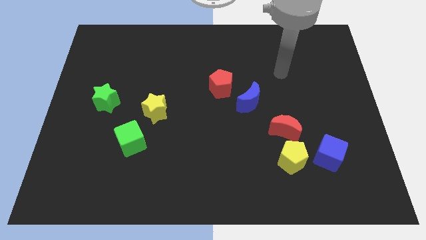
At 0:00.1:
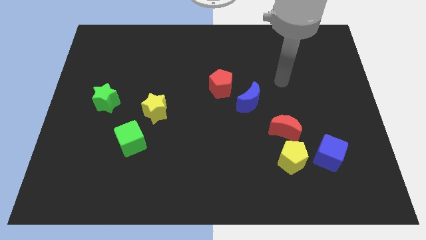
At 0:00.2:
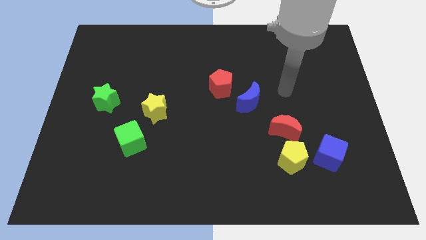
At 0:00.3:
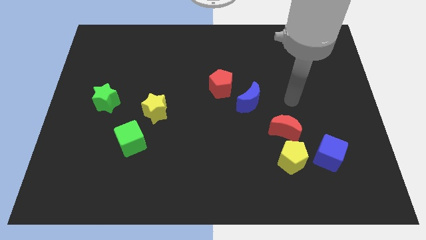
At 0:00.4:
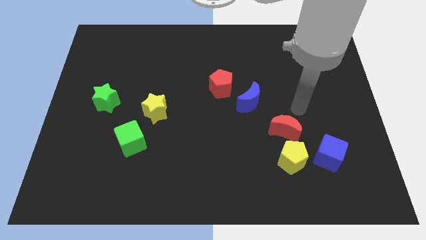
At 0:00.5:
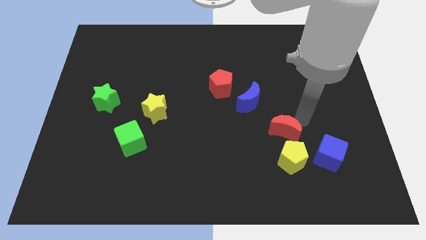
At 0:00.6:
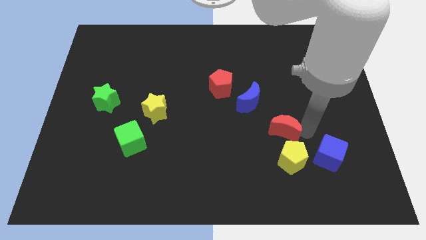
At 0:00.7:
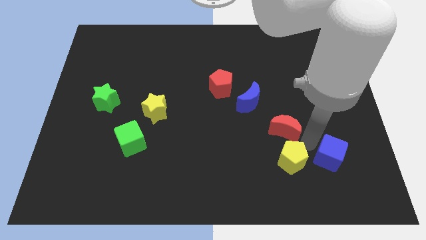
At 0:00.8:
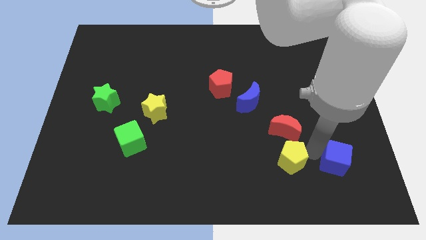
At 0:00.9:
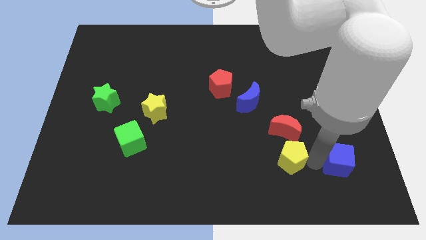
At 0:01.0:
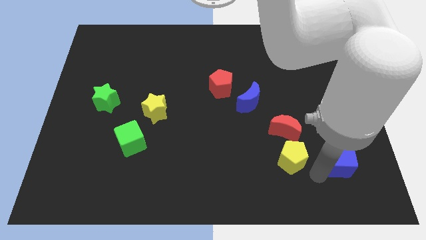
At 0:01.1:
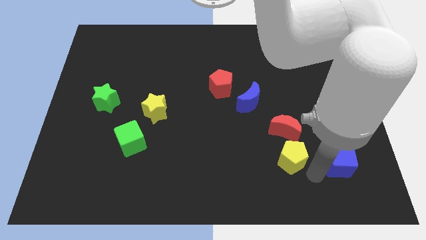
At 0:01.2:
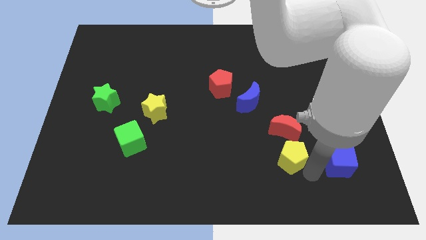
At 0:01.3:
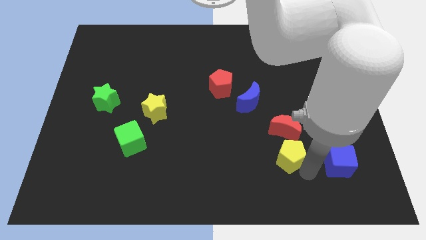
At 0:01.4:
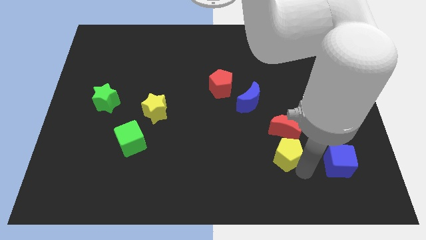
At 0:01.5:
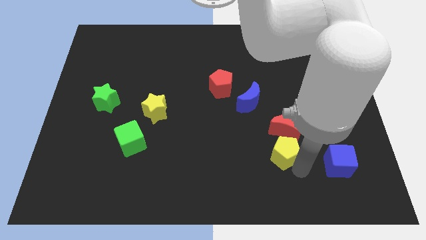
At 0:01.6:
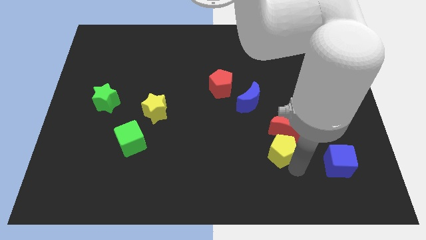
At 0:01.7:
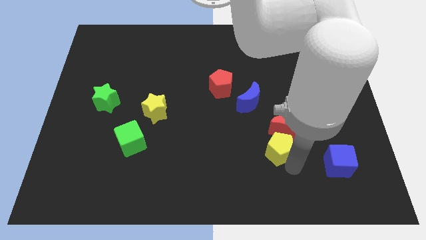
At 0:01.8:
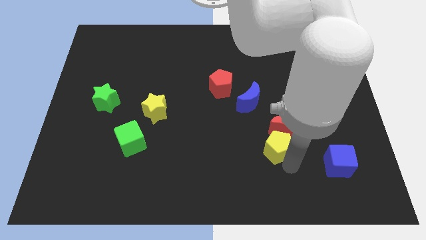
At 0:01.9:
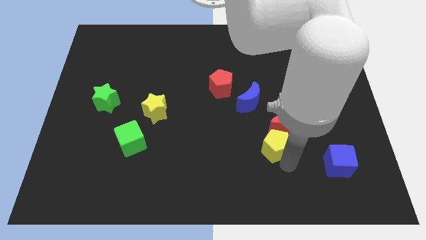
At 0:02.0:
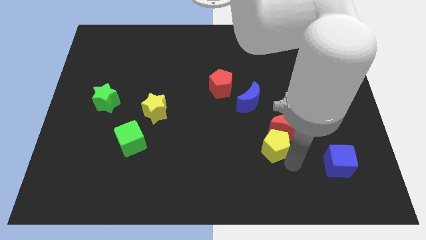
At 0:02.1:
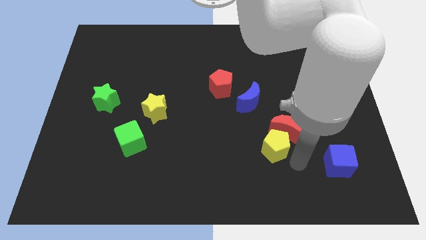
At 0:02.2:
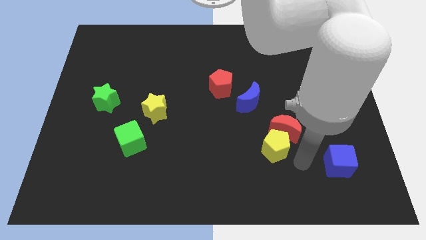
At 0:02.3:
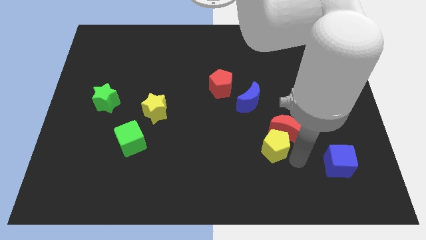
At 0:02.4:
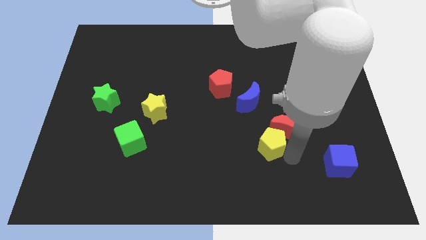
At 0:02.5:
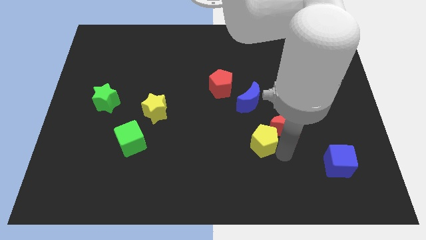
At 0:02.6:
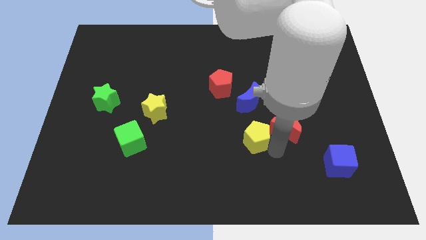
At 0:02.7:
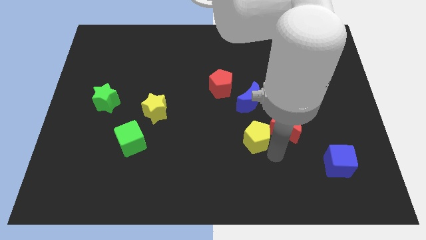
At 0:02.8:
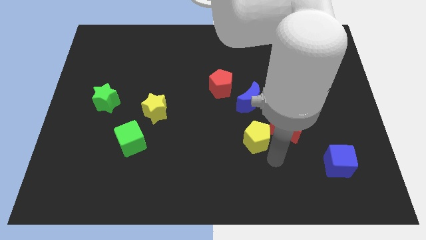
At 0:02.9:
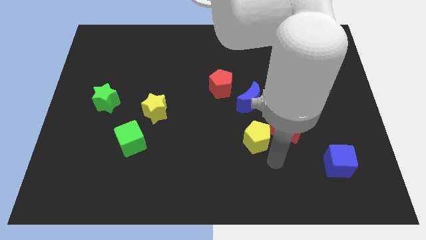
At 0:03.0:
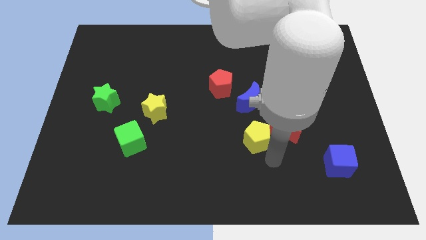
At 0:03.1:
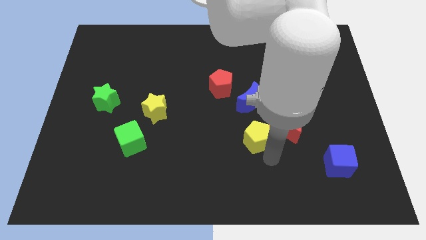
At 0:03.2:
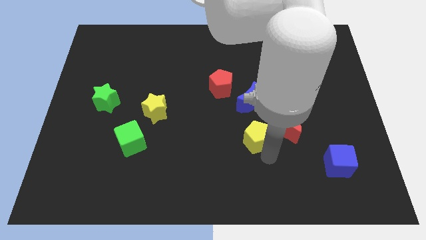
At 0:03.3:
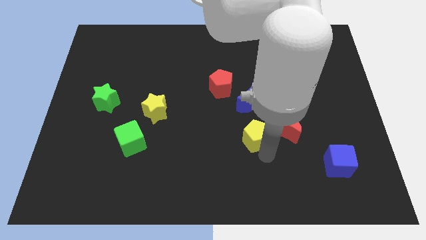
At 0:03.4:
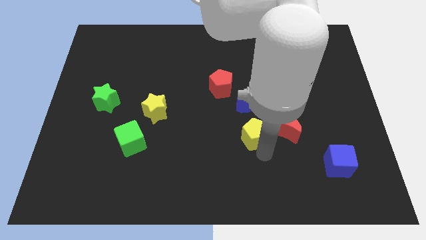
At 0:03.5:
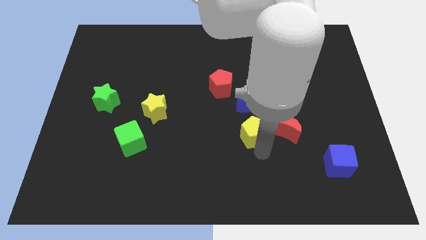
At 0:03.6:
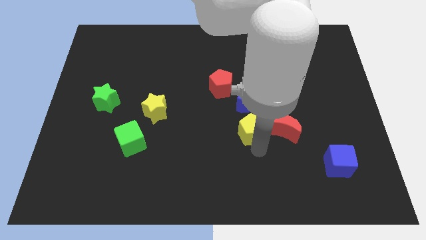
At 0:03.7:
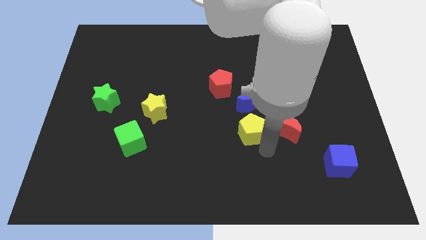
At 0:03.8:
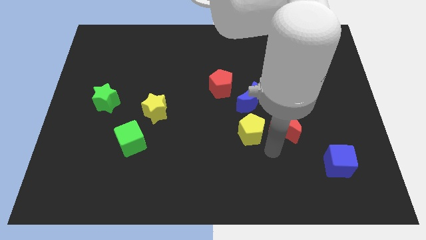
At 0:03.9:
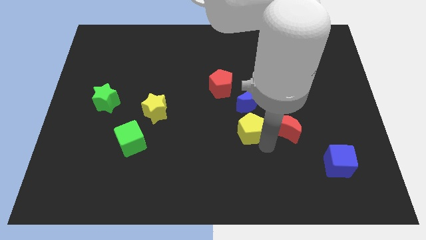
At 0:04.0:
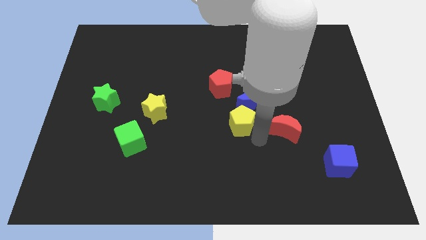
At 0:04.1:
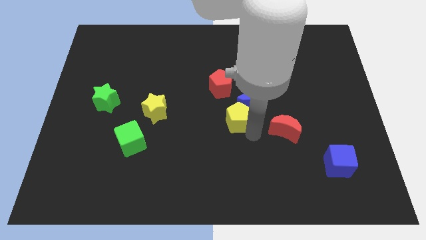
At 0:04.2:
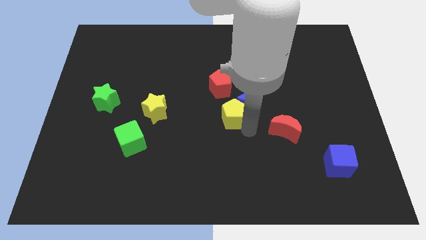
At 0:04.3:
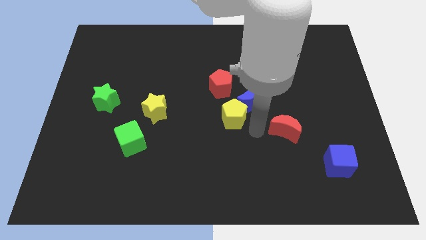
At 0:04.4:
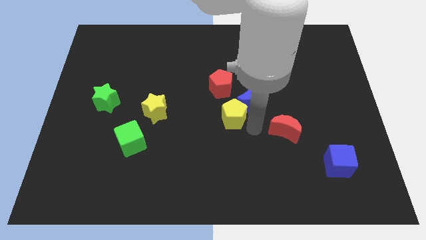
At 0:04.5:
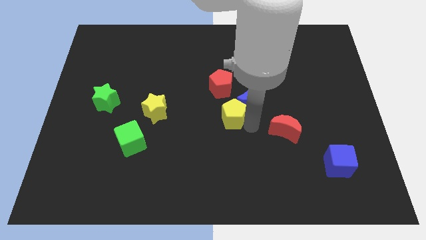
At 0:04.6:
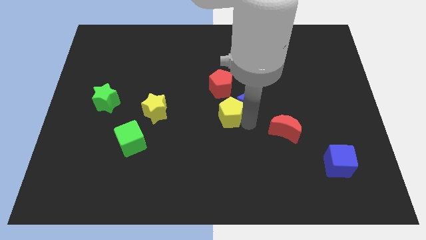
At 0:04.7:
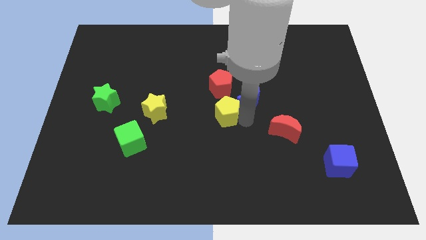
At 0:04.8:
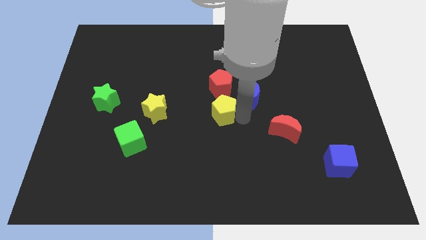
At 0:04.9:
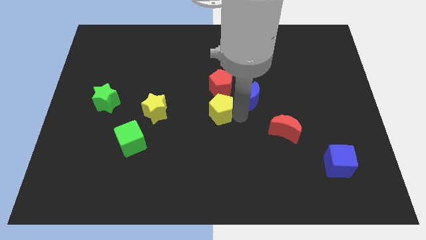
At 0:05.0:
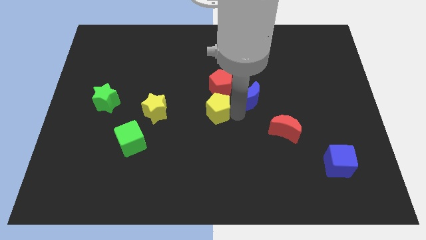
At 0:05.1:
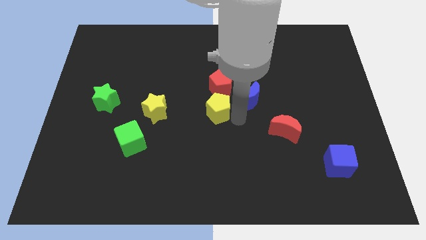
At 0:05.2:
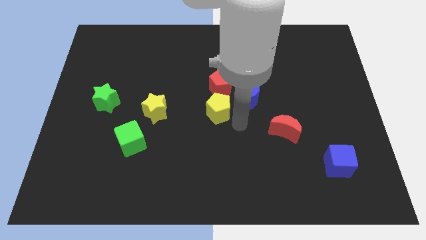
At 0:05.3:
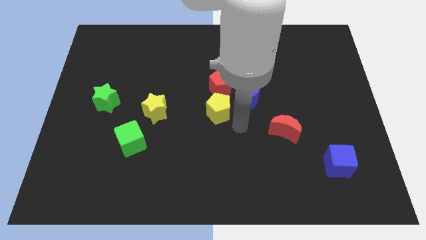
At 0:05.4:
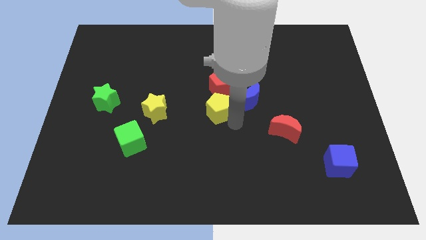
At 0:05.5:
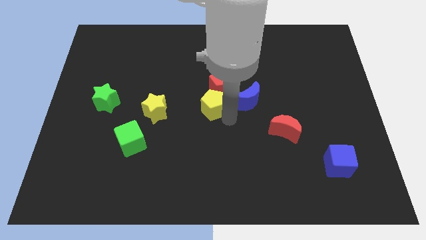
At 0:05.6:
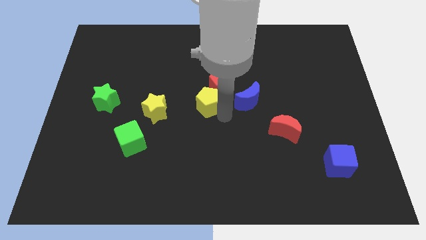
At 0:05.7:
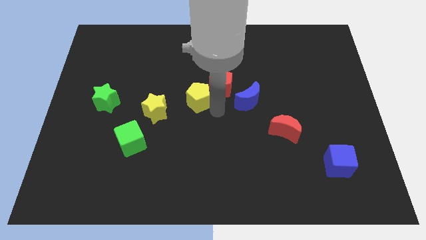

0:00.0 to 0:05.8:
put the yellow pentagon left of the red pentagon

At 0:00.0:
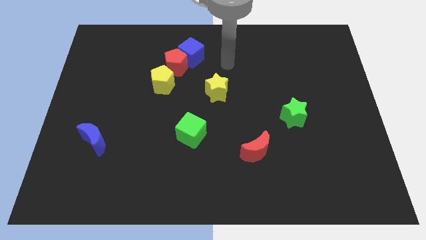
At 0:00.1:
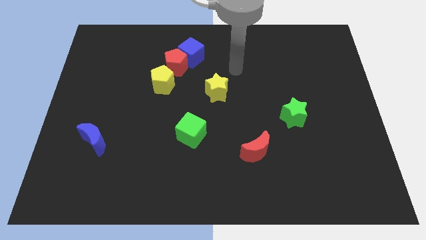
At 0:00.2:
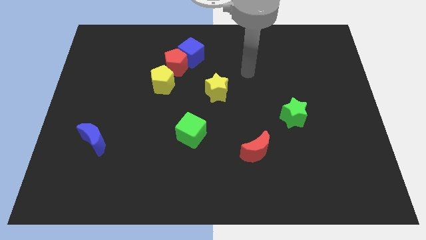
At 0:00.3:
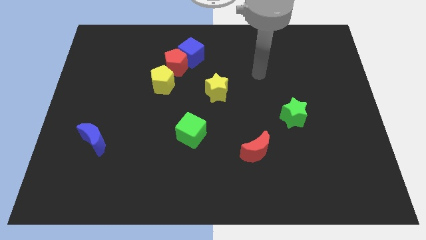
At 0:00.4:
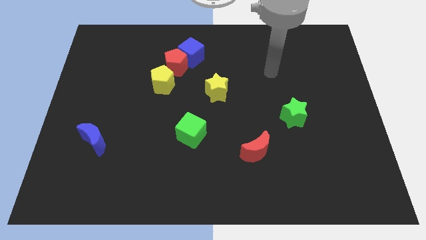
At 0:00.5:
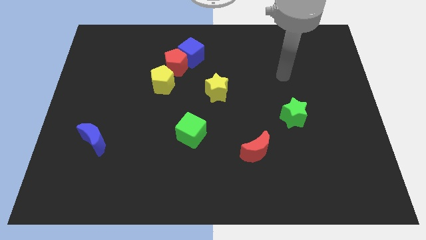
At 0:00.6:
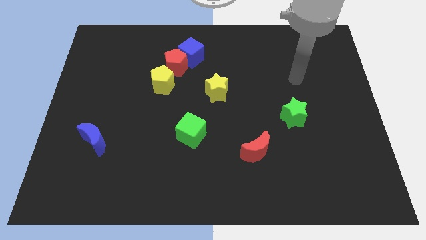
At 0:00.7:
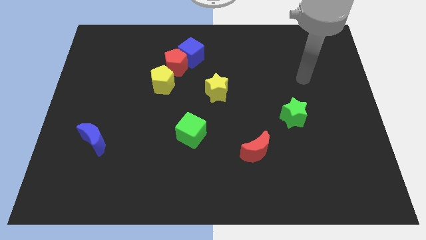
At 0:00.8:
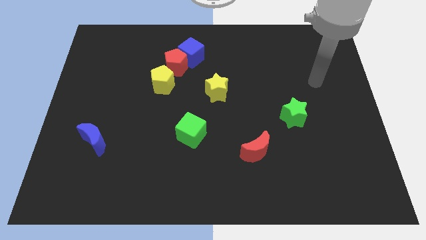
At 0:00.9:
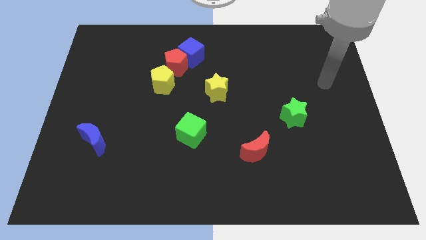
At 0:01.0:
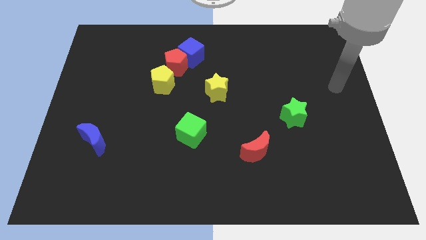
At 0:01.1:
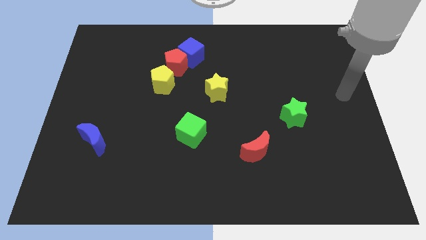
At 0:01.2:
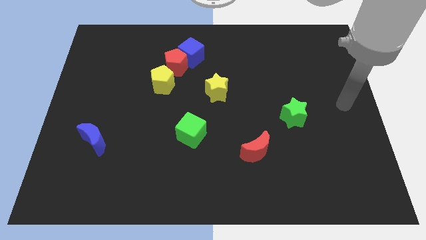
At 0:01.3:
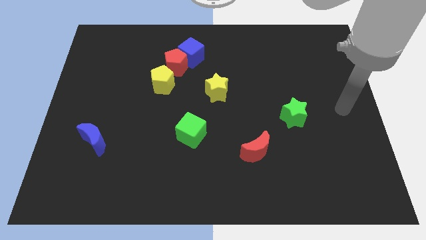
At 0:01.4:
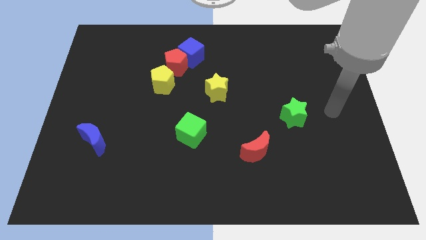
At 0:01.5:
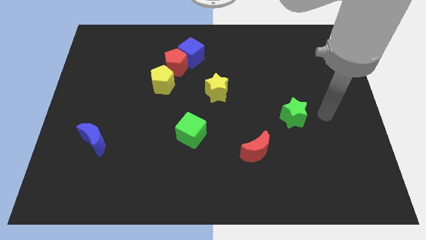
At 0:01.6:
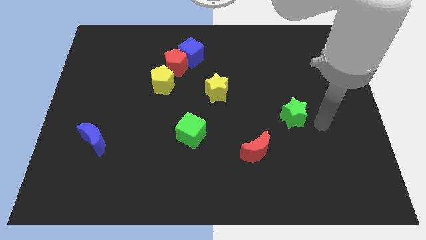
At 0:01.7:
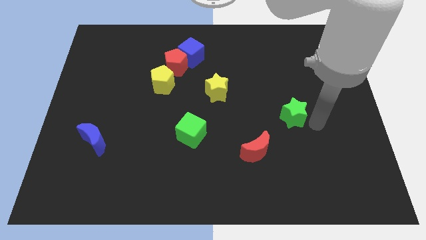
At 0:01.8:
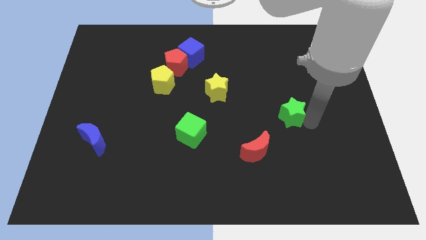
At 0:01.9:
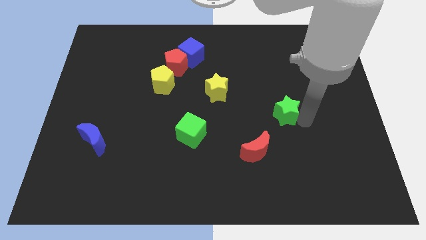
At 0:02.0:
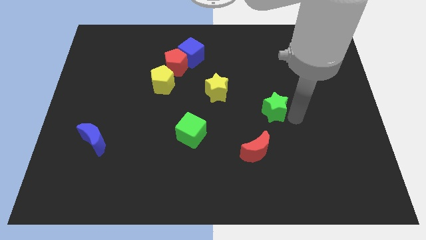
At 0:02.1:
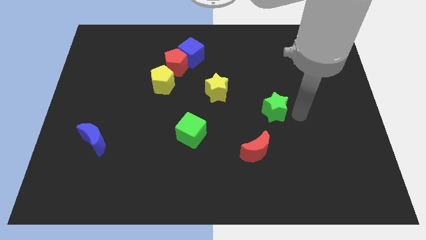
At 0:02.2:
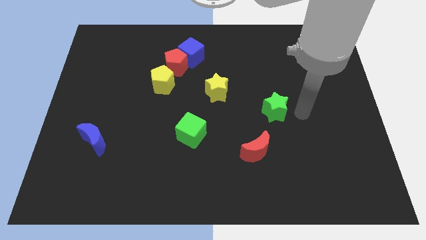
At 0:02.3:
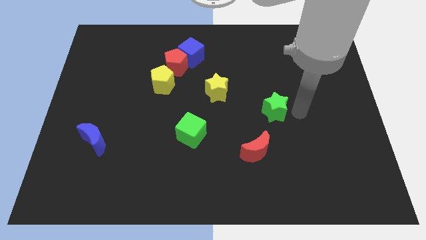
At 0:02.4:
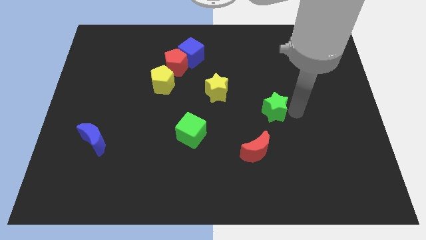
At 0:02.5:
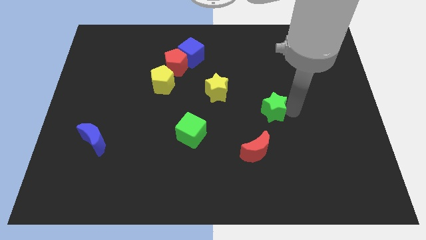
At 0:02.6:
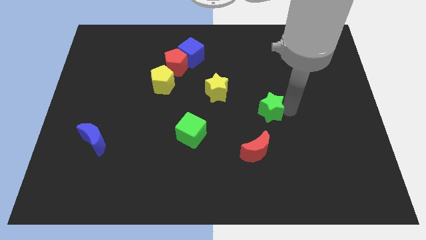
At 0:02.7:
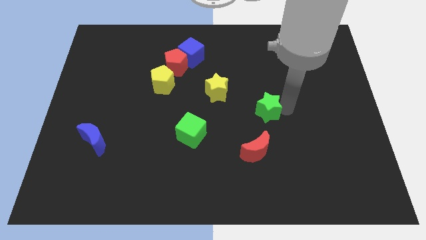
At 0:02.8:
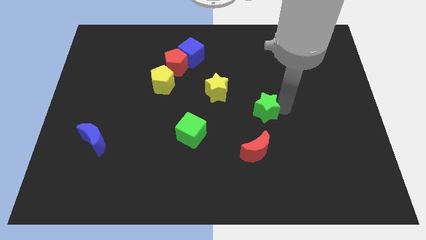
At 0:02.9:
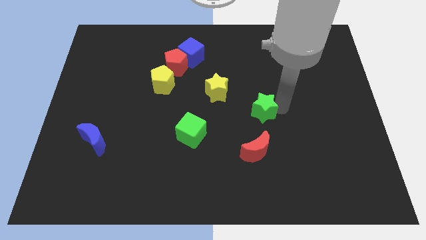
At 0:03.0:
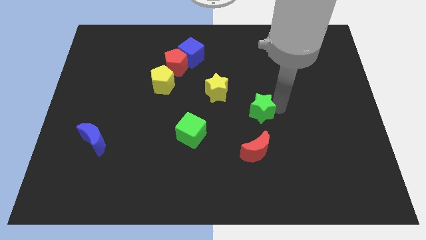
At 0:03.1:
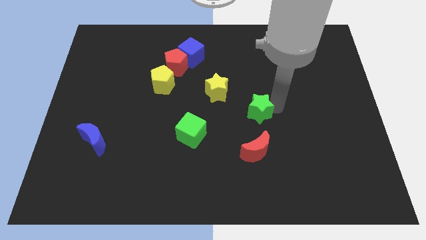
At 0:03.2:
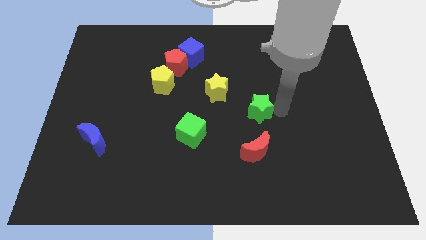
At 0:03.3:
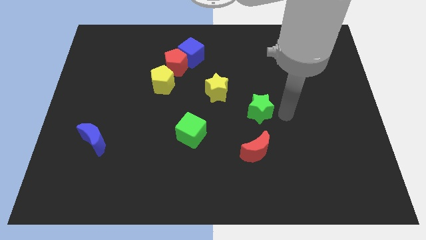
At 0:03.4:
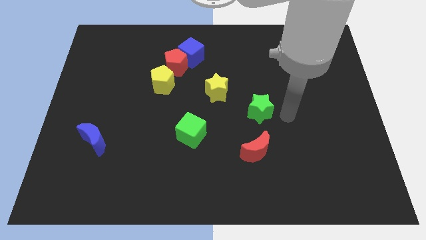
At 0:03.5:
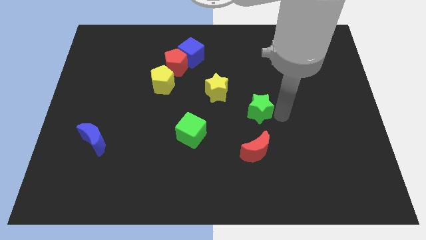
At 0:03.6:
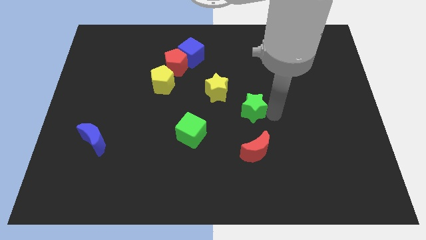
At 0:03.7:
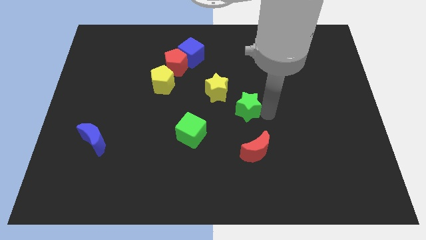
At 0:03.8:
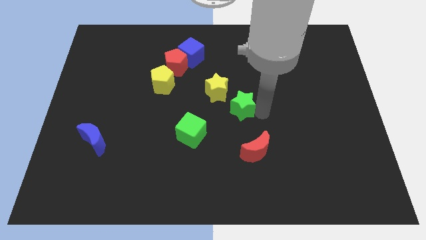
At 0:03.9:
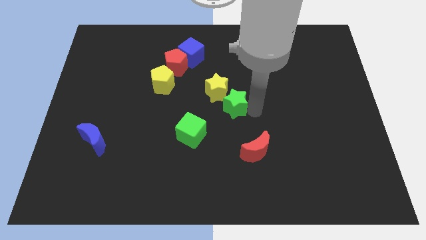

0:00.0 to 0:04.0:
push the green star diagonally up and to the right of the green cube
